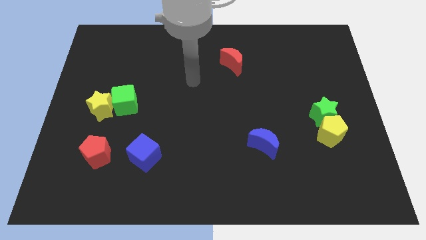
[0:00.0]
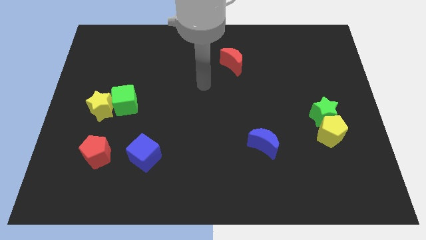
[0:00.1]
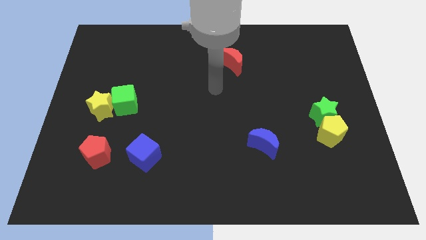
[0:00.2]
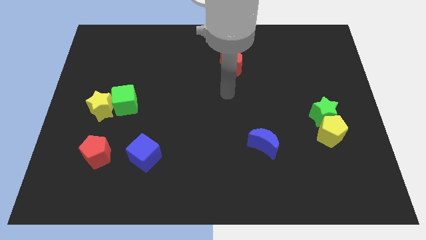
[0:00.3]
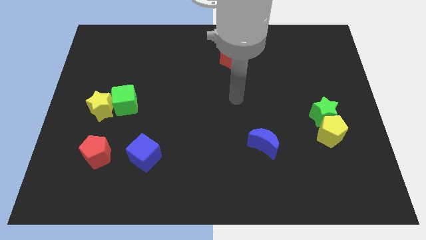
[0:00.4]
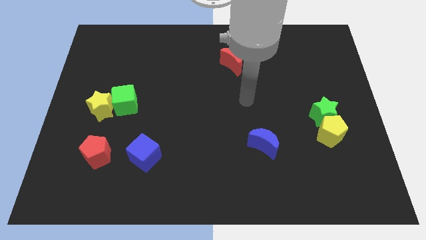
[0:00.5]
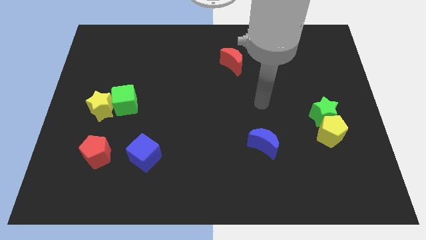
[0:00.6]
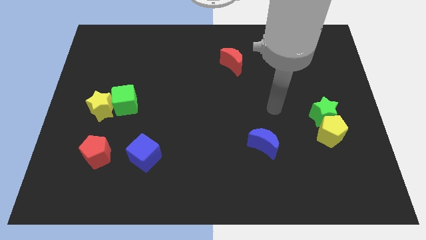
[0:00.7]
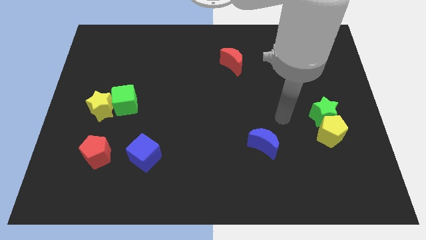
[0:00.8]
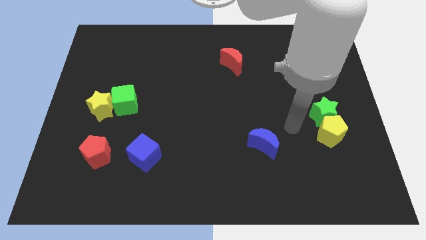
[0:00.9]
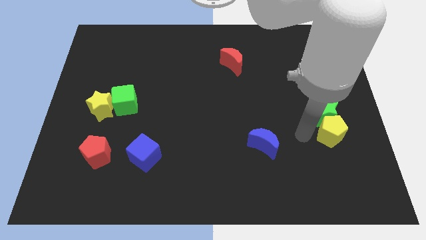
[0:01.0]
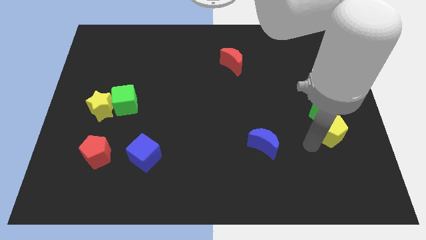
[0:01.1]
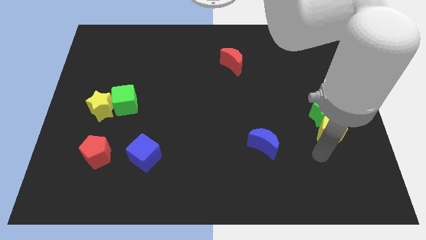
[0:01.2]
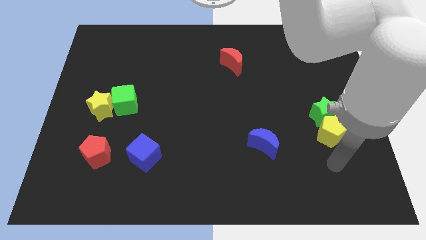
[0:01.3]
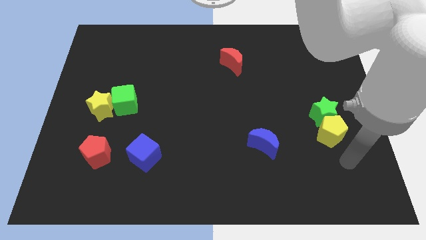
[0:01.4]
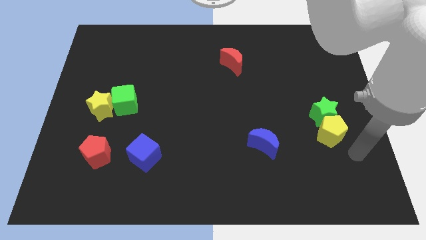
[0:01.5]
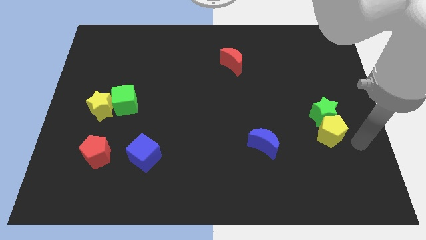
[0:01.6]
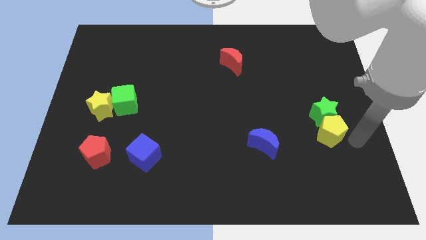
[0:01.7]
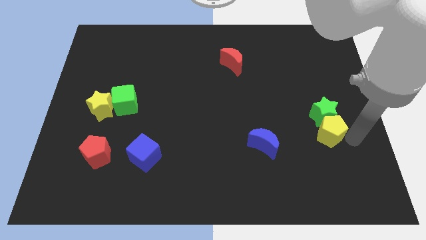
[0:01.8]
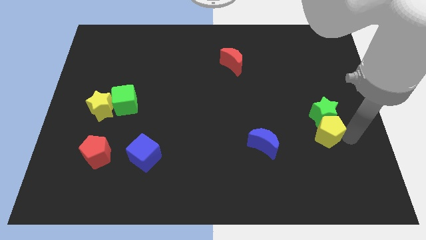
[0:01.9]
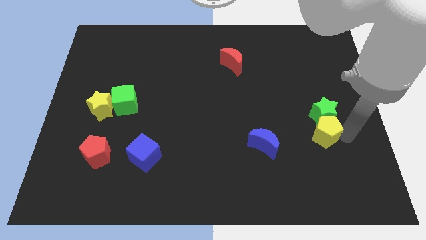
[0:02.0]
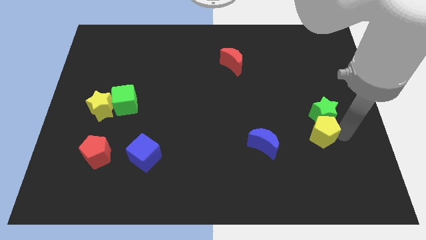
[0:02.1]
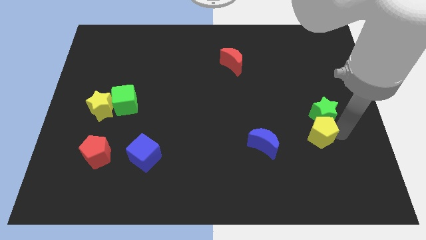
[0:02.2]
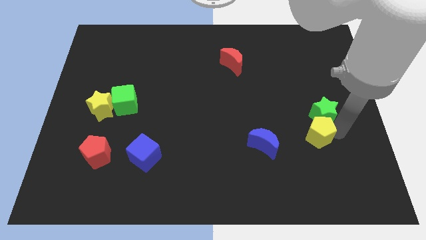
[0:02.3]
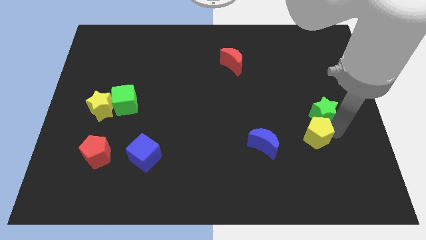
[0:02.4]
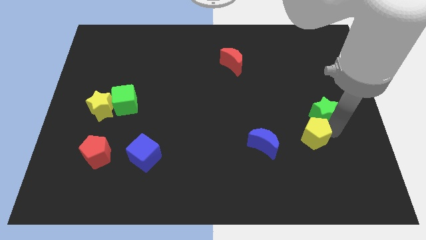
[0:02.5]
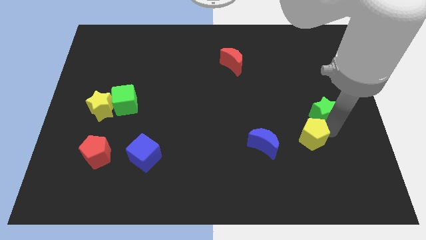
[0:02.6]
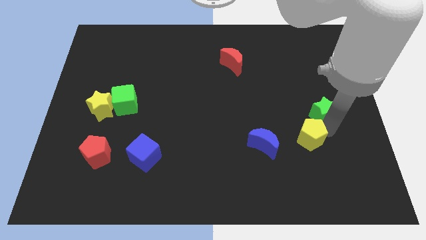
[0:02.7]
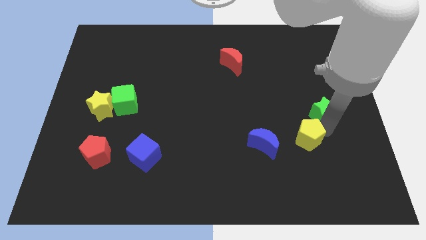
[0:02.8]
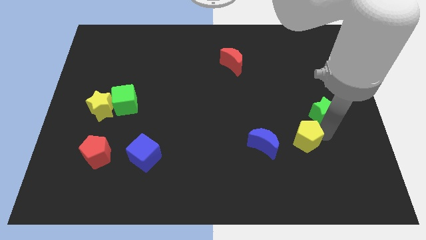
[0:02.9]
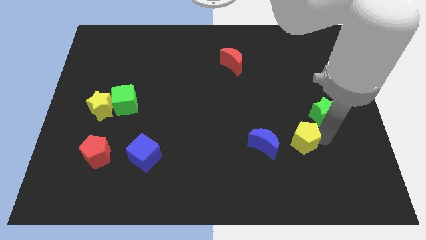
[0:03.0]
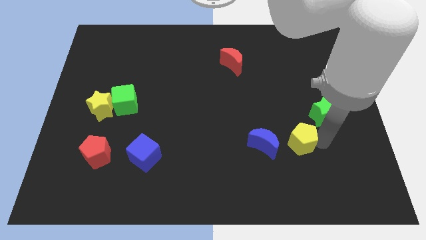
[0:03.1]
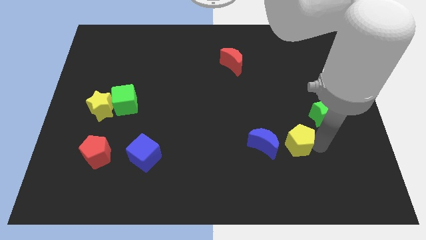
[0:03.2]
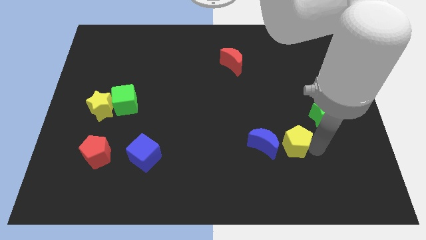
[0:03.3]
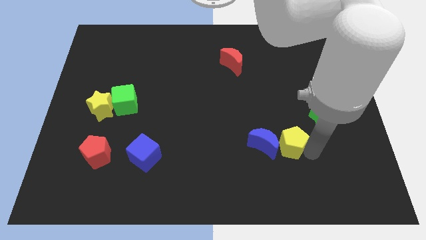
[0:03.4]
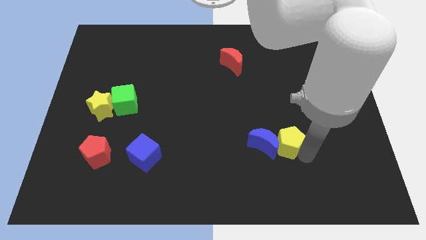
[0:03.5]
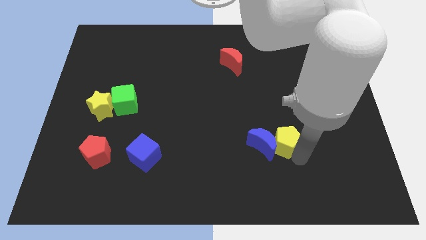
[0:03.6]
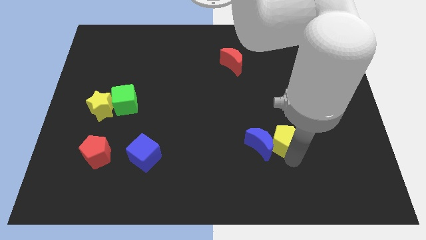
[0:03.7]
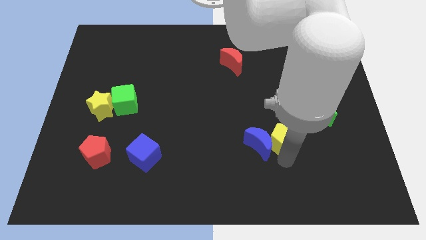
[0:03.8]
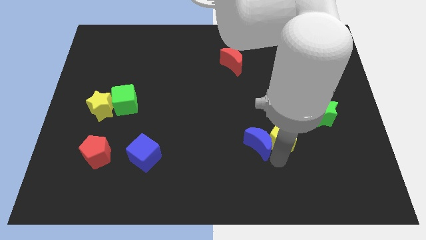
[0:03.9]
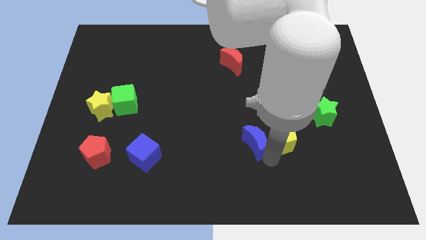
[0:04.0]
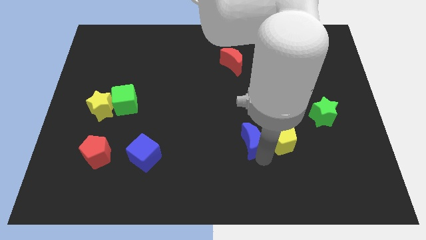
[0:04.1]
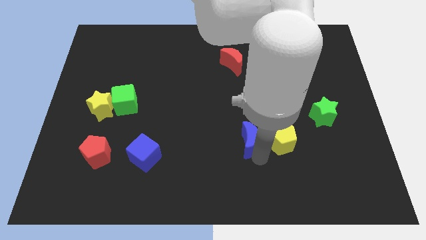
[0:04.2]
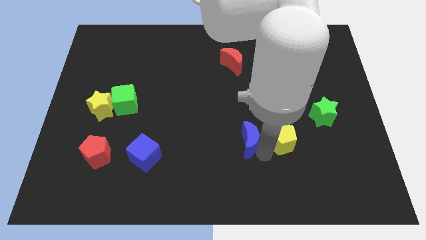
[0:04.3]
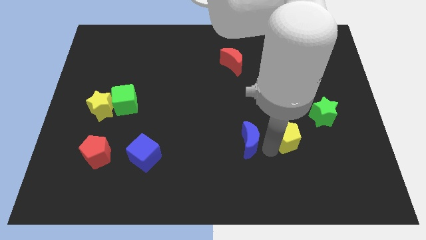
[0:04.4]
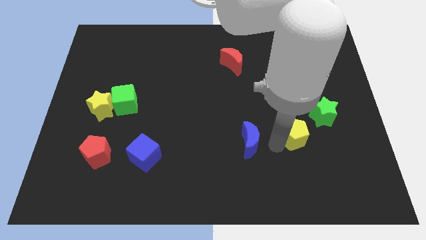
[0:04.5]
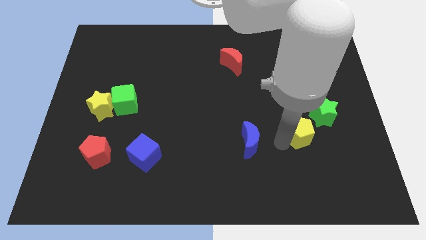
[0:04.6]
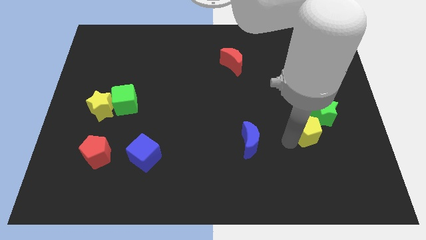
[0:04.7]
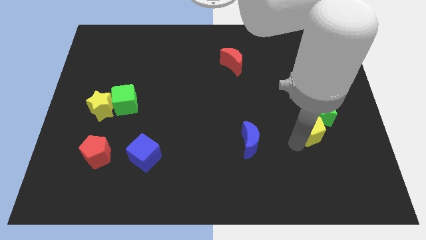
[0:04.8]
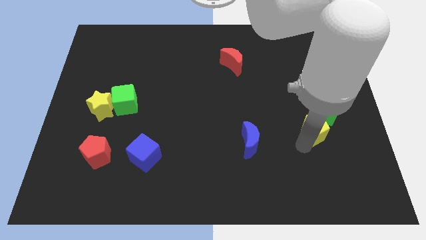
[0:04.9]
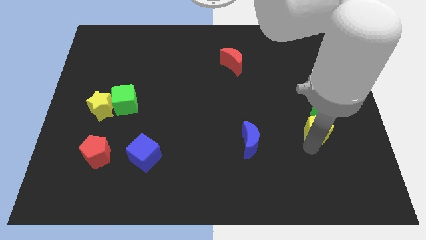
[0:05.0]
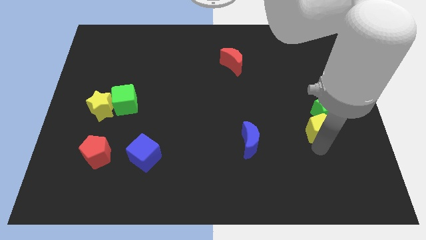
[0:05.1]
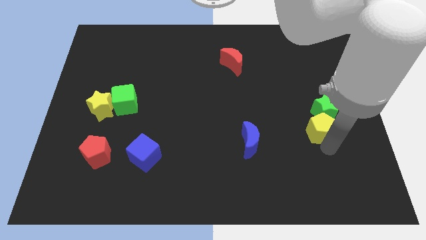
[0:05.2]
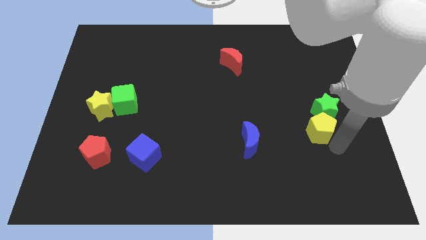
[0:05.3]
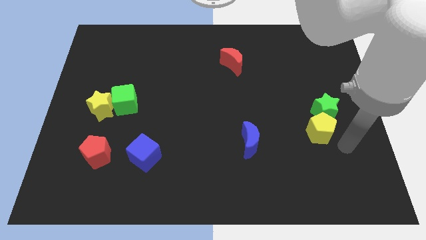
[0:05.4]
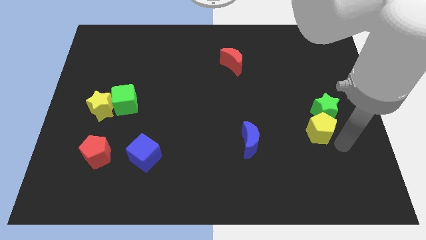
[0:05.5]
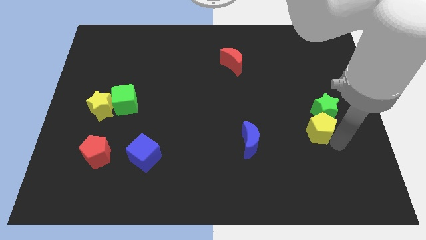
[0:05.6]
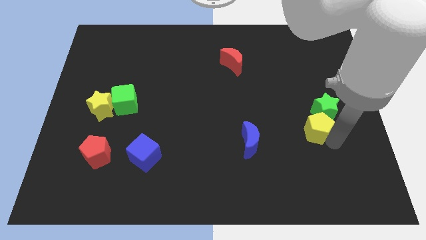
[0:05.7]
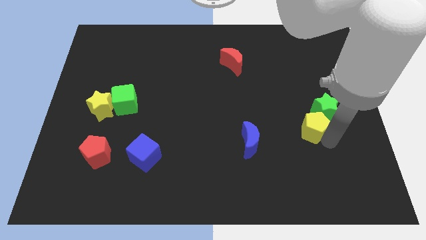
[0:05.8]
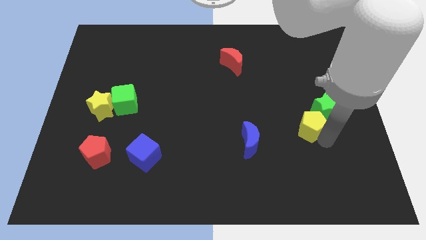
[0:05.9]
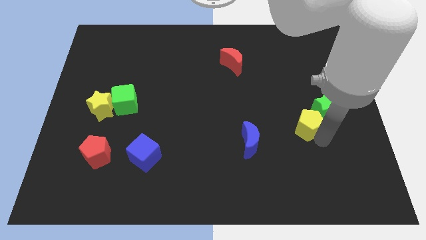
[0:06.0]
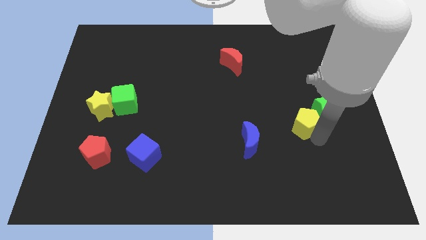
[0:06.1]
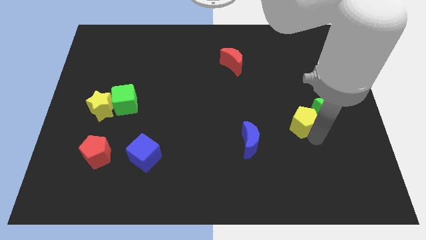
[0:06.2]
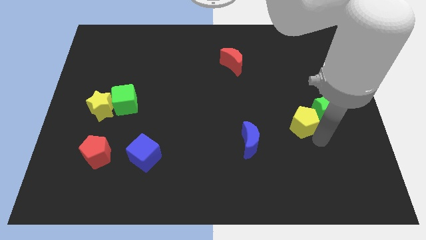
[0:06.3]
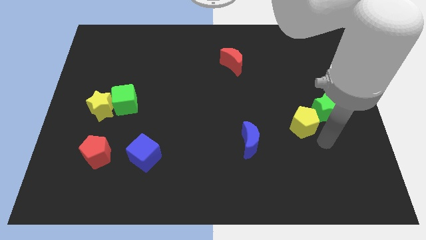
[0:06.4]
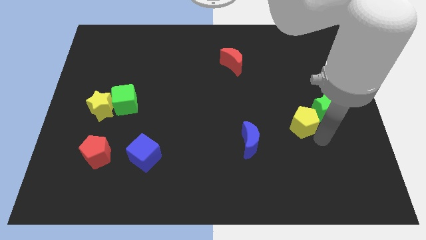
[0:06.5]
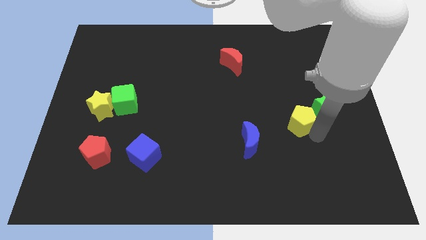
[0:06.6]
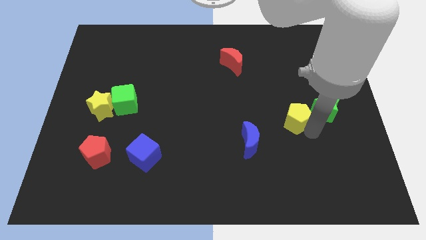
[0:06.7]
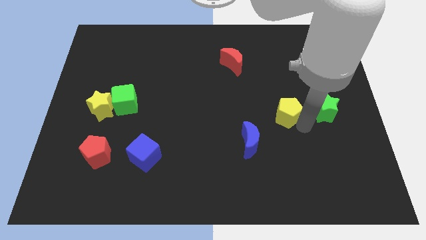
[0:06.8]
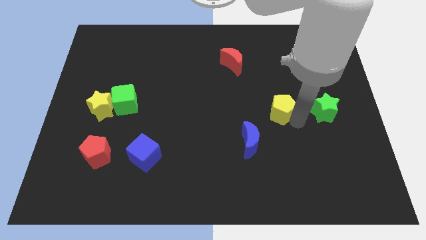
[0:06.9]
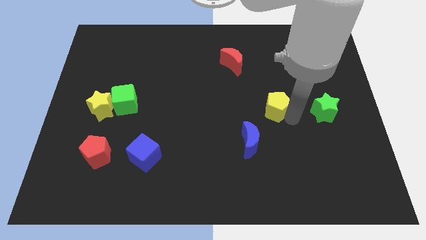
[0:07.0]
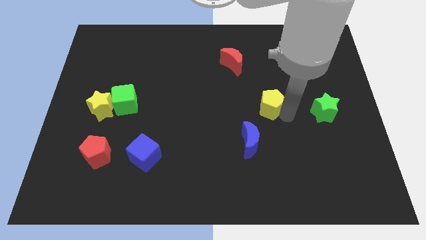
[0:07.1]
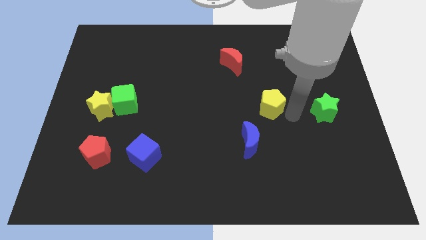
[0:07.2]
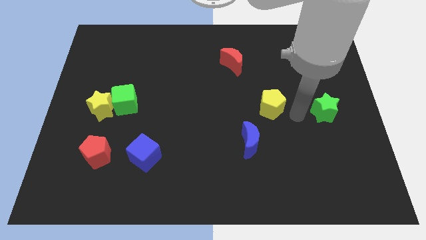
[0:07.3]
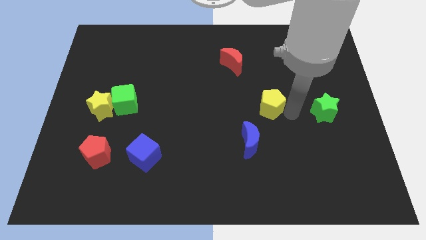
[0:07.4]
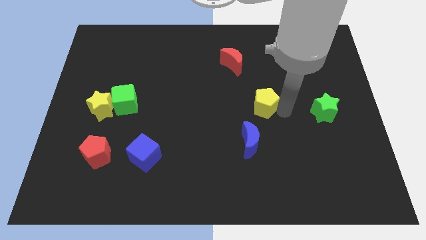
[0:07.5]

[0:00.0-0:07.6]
push the yellow pentagon to the center
